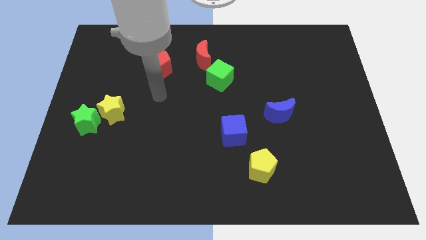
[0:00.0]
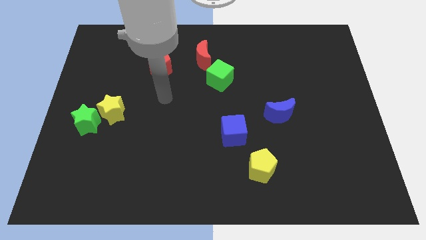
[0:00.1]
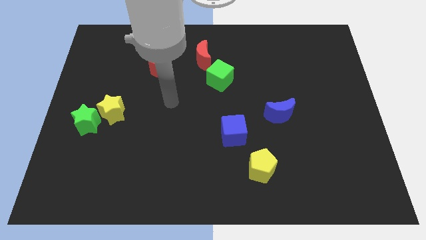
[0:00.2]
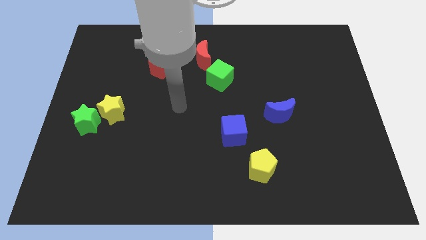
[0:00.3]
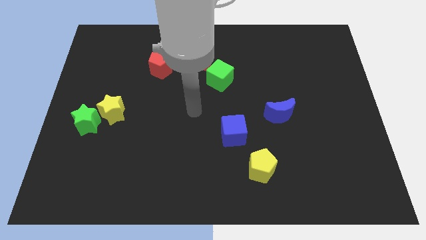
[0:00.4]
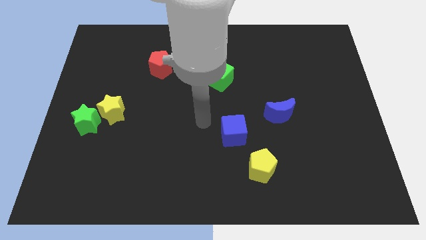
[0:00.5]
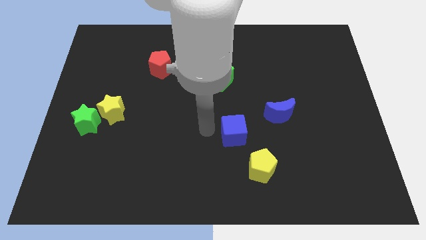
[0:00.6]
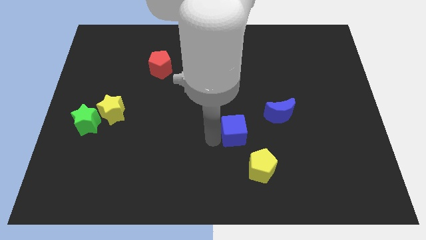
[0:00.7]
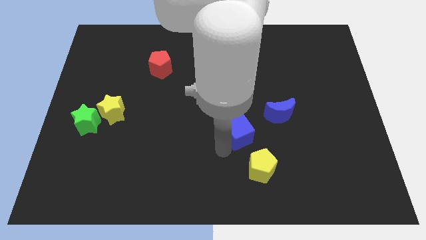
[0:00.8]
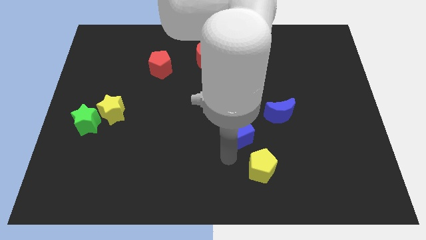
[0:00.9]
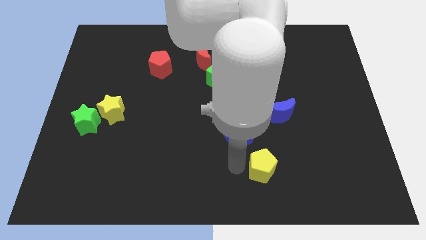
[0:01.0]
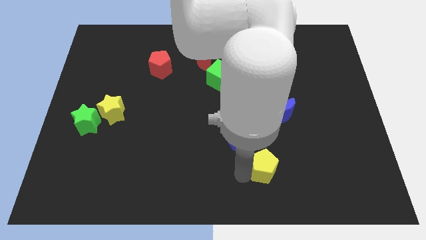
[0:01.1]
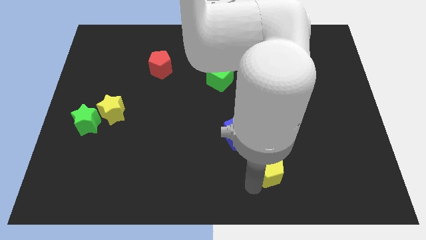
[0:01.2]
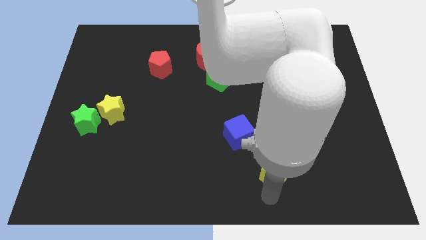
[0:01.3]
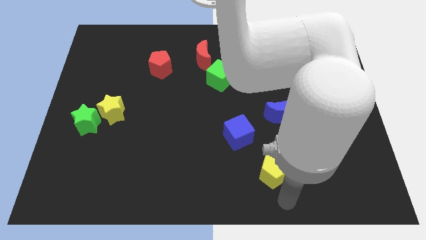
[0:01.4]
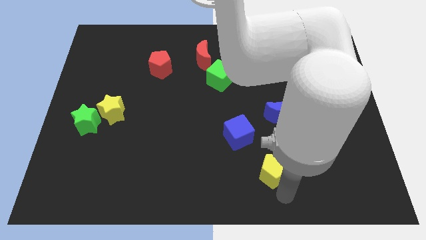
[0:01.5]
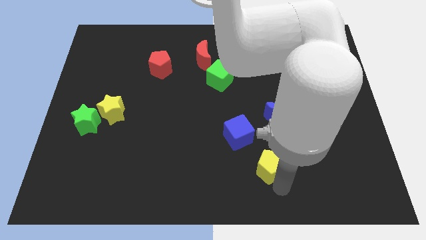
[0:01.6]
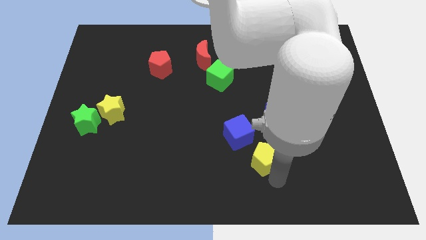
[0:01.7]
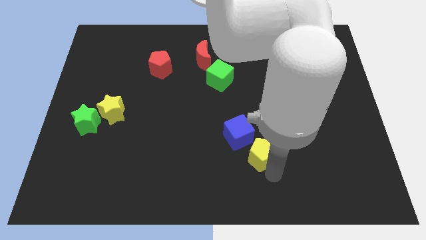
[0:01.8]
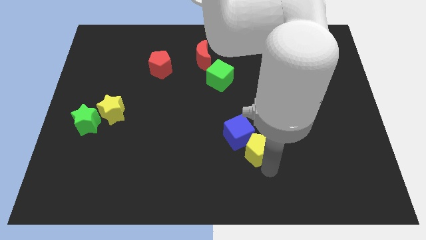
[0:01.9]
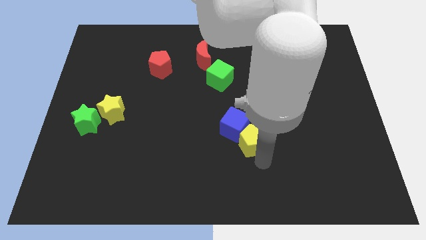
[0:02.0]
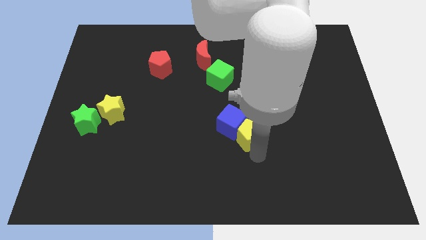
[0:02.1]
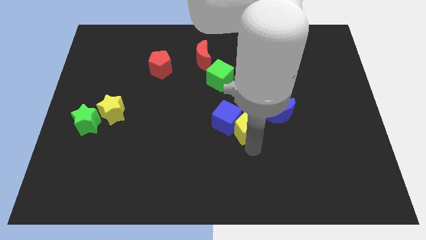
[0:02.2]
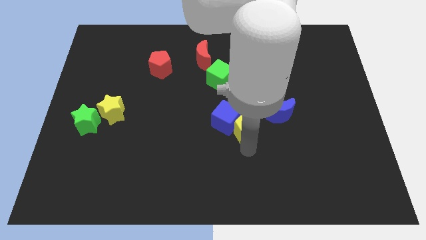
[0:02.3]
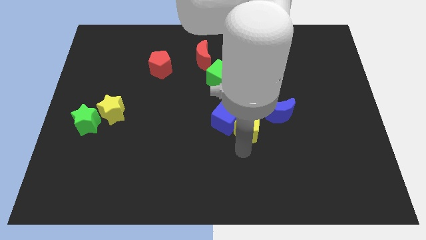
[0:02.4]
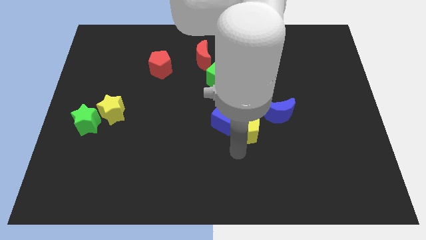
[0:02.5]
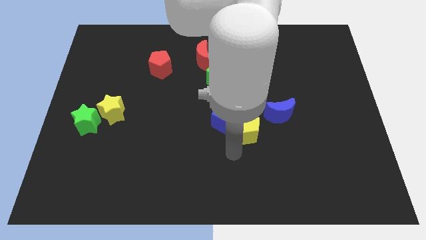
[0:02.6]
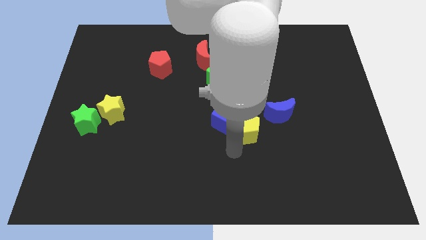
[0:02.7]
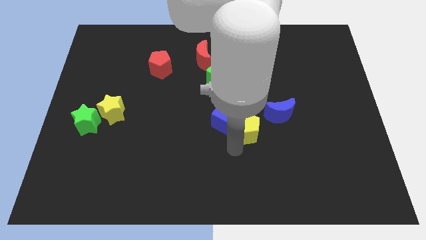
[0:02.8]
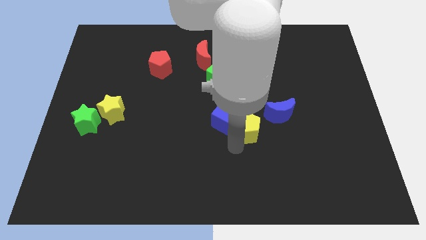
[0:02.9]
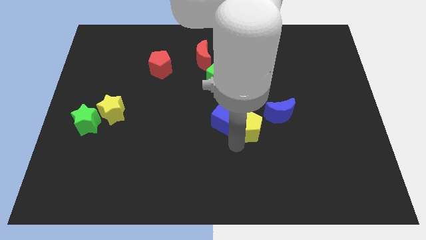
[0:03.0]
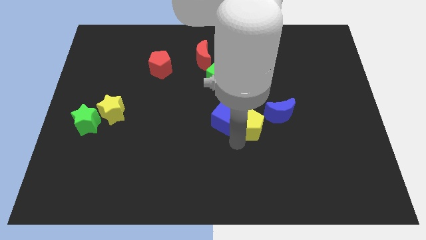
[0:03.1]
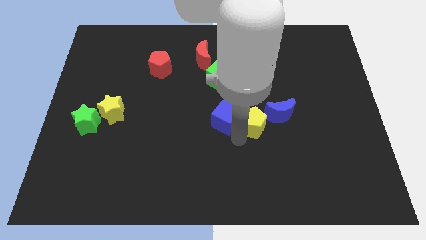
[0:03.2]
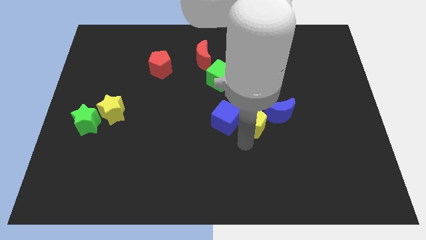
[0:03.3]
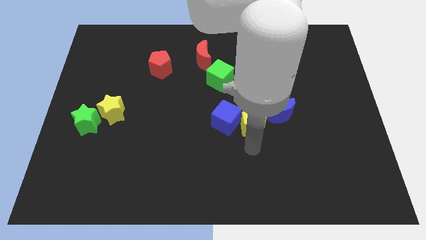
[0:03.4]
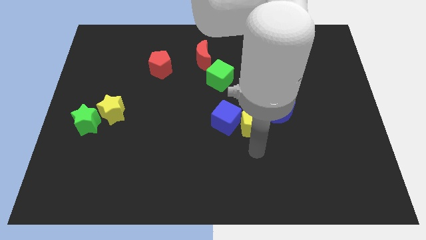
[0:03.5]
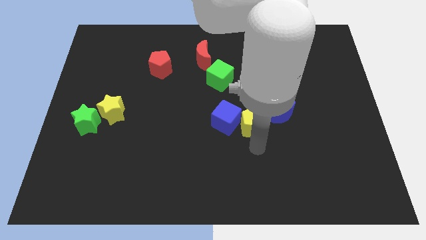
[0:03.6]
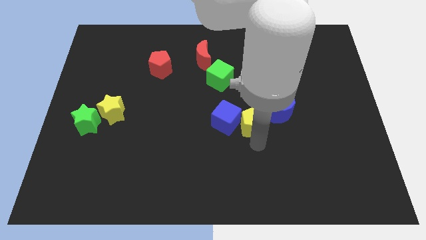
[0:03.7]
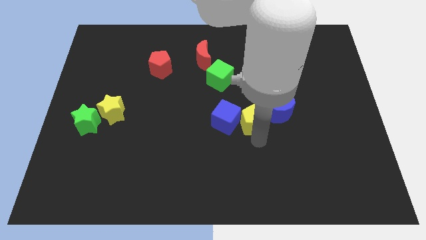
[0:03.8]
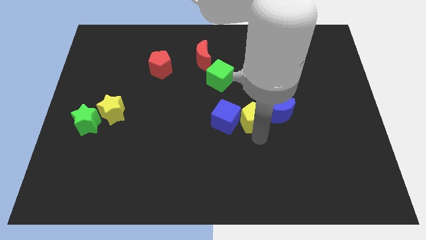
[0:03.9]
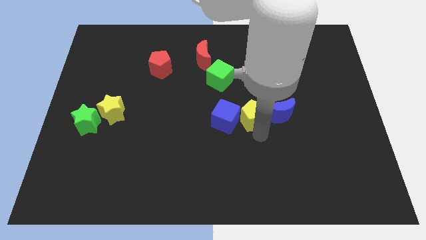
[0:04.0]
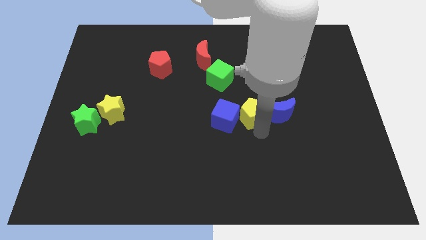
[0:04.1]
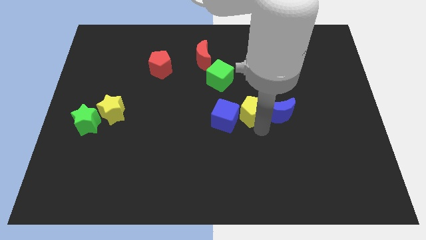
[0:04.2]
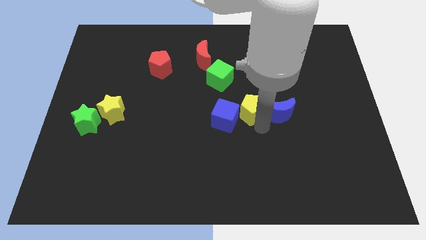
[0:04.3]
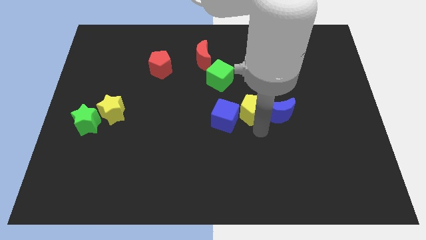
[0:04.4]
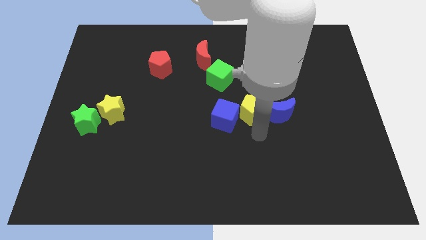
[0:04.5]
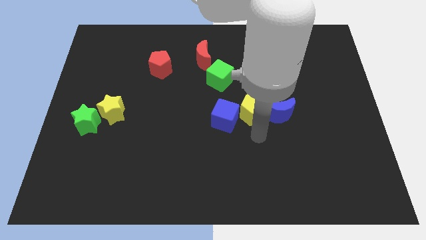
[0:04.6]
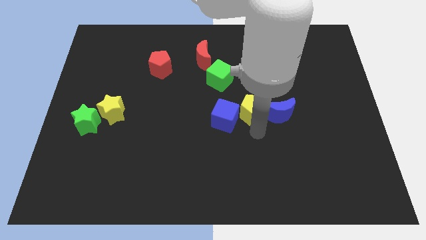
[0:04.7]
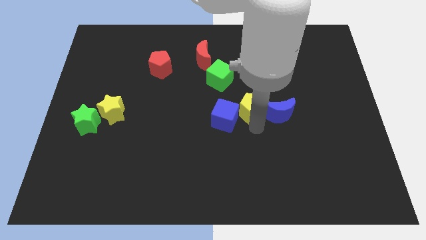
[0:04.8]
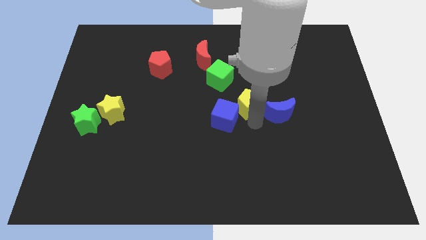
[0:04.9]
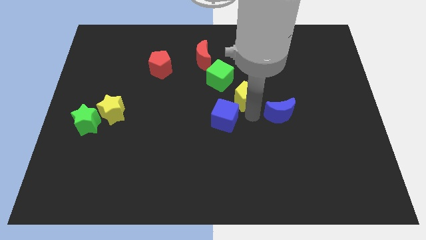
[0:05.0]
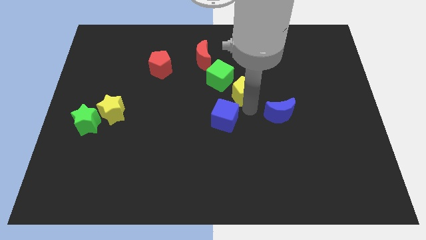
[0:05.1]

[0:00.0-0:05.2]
slide the yellow pentagon upwards

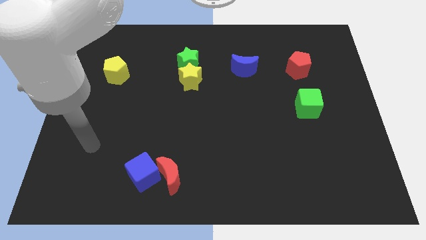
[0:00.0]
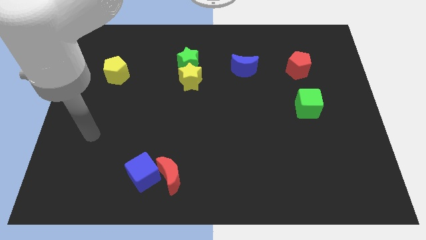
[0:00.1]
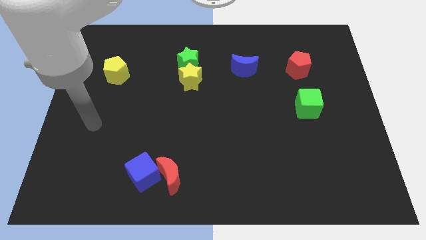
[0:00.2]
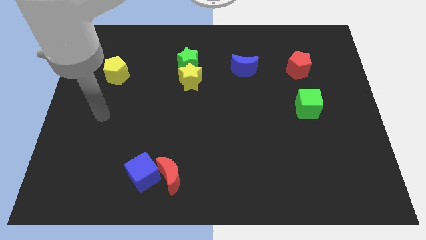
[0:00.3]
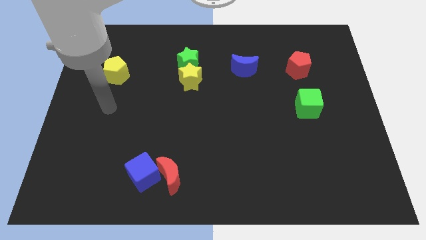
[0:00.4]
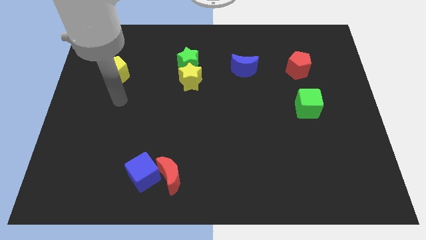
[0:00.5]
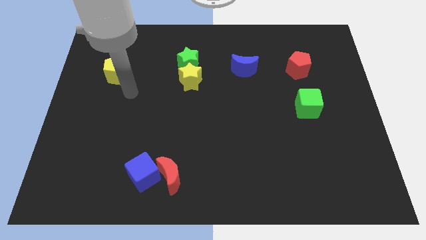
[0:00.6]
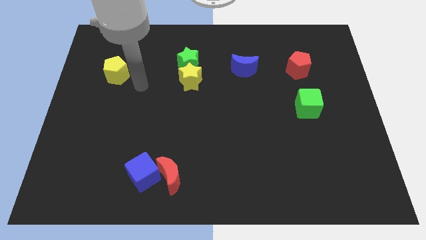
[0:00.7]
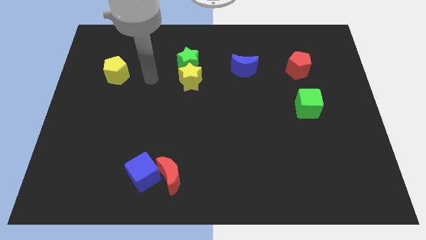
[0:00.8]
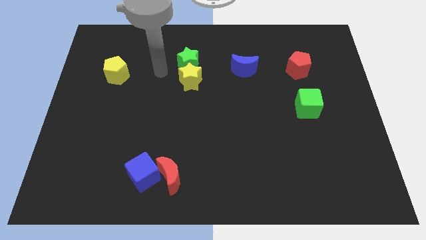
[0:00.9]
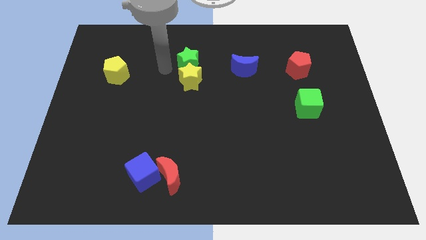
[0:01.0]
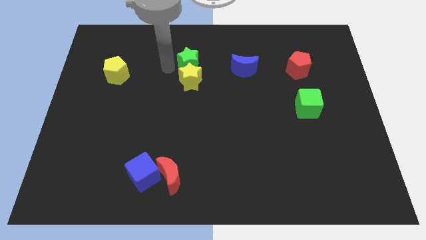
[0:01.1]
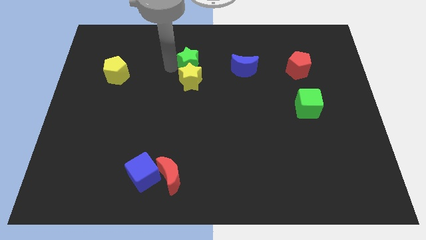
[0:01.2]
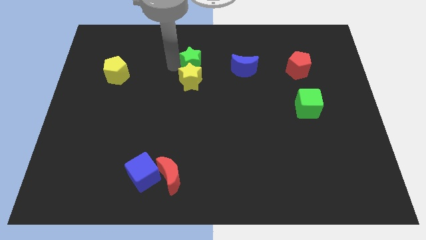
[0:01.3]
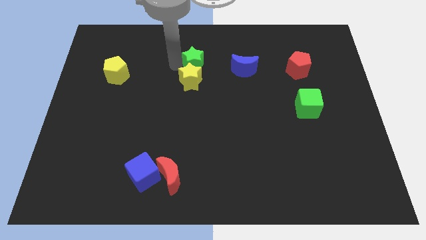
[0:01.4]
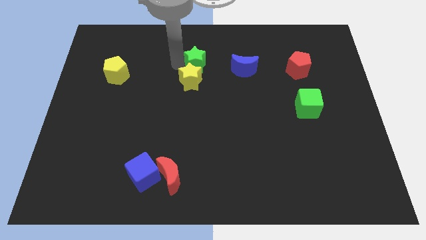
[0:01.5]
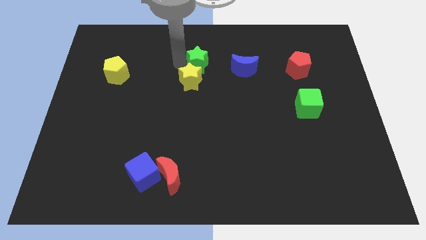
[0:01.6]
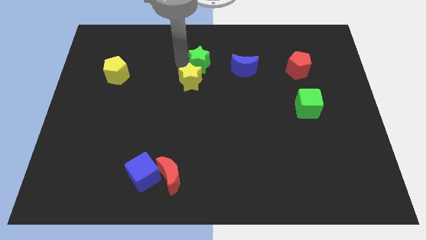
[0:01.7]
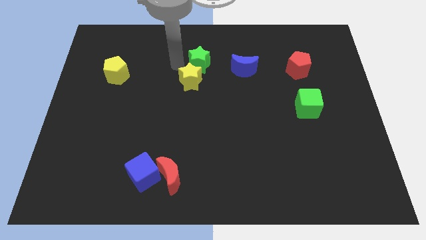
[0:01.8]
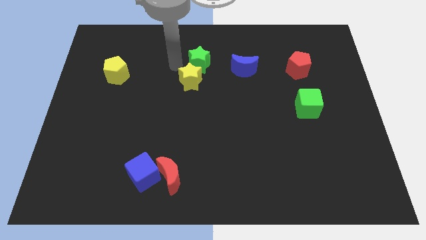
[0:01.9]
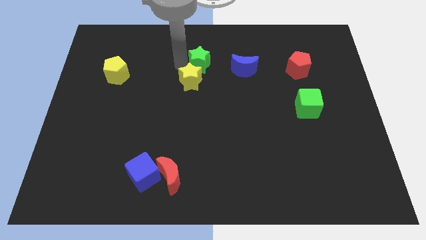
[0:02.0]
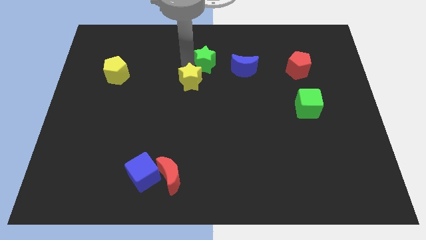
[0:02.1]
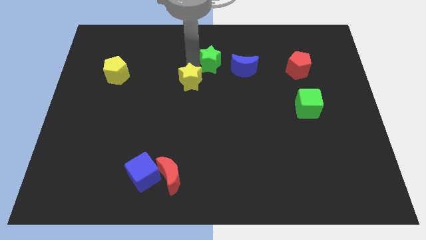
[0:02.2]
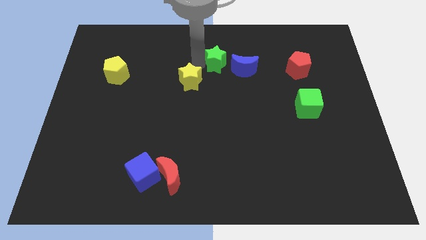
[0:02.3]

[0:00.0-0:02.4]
slightly move the green star right

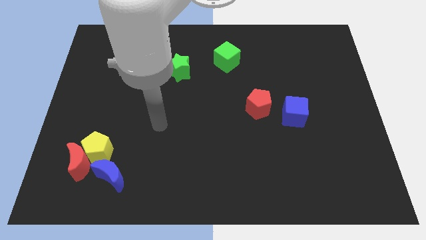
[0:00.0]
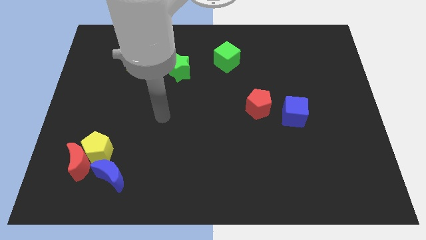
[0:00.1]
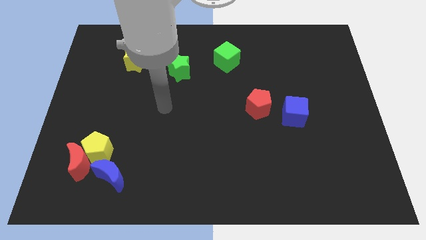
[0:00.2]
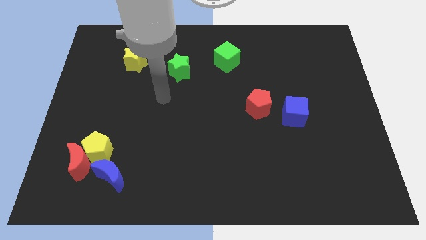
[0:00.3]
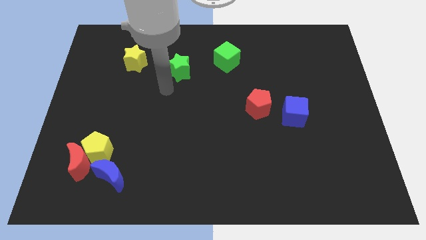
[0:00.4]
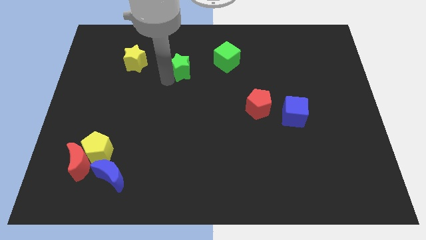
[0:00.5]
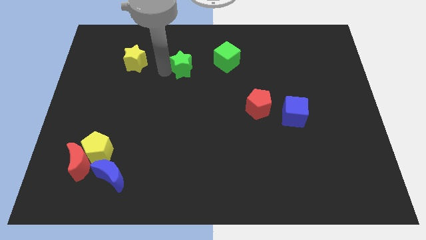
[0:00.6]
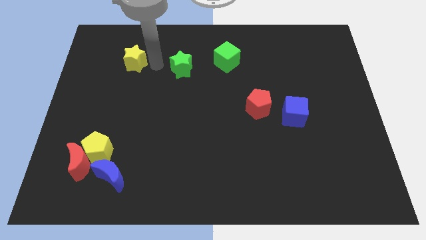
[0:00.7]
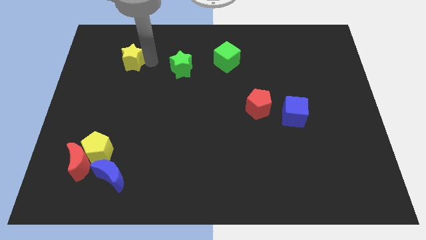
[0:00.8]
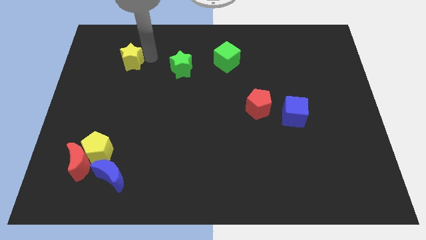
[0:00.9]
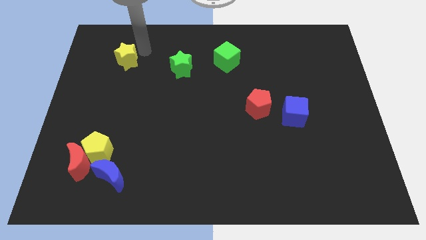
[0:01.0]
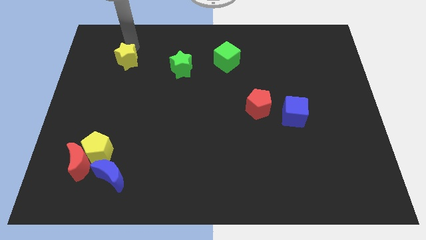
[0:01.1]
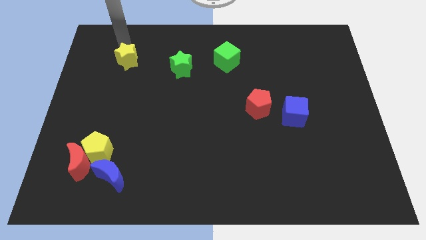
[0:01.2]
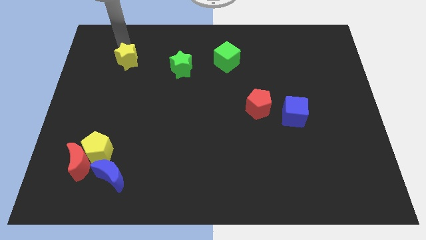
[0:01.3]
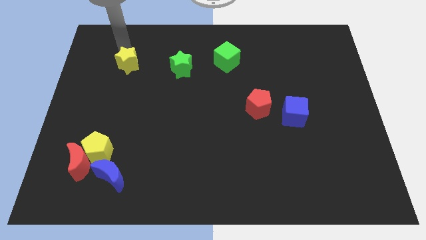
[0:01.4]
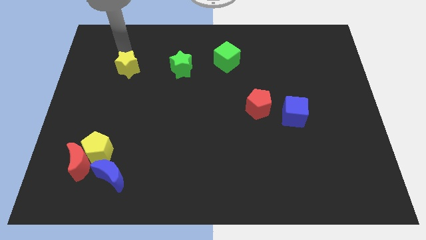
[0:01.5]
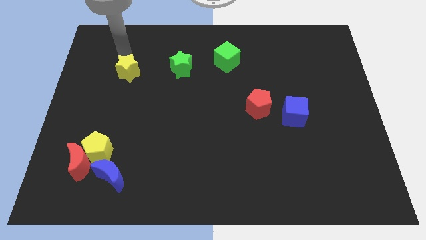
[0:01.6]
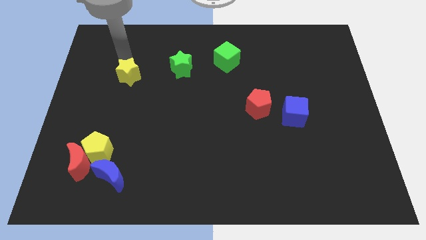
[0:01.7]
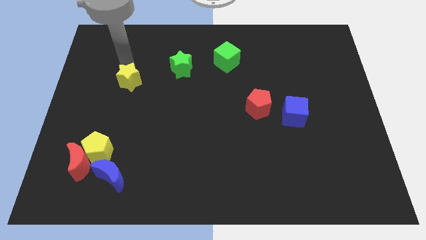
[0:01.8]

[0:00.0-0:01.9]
push the yellow star a little down
